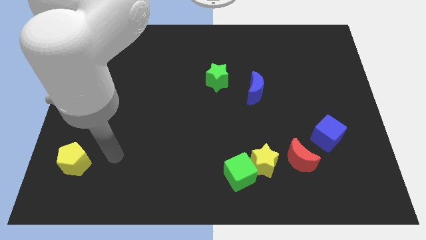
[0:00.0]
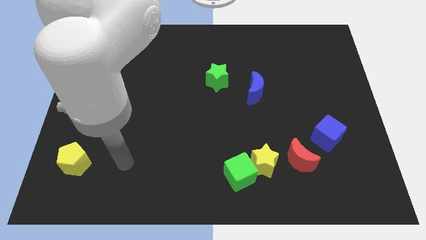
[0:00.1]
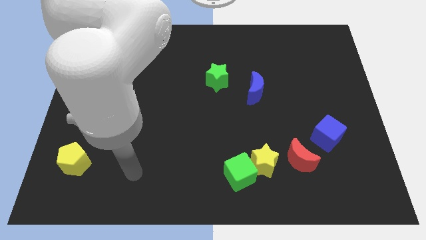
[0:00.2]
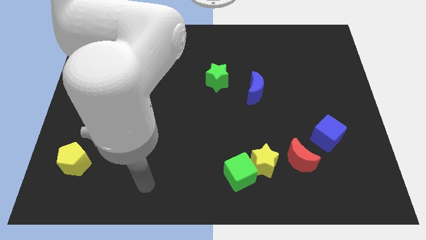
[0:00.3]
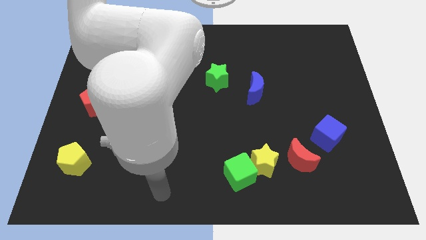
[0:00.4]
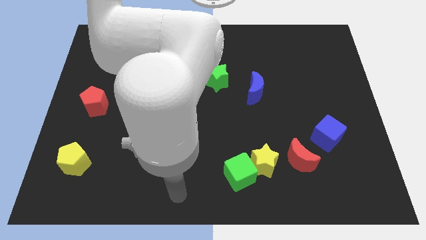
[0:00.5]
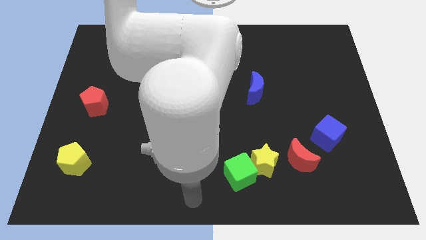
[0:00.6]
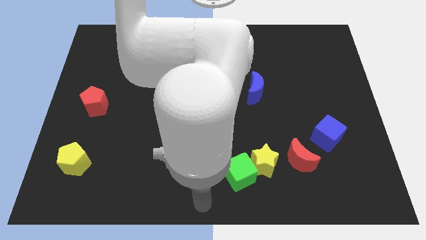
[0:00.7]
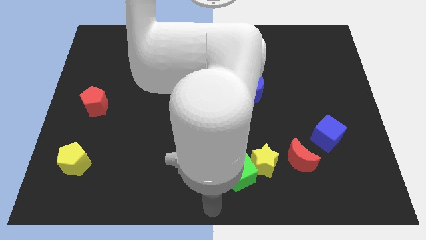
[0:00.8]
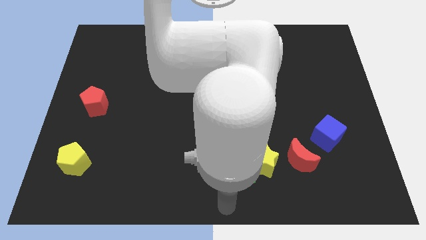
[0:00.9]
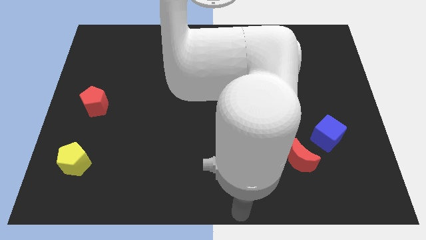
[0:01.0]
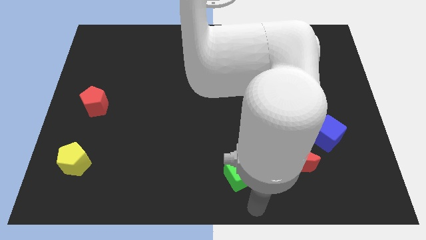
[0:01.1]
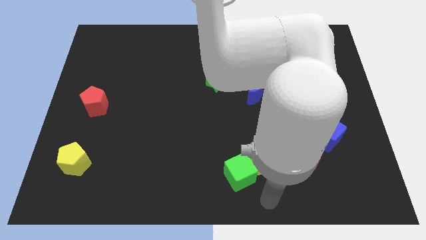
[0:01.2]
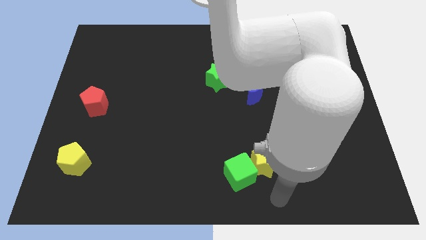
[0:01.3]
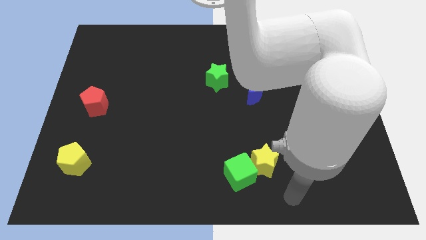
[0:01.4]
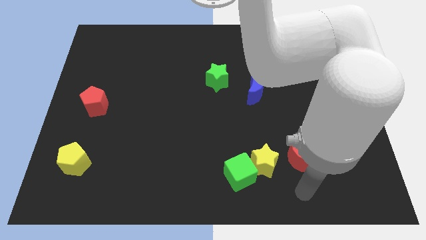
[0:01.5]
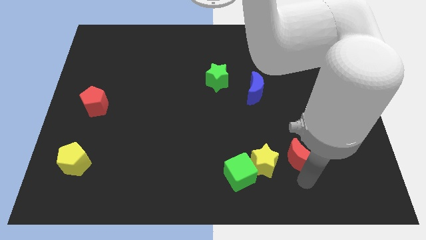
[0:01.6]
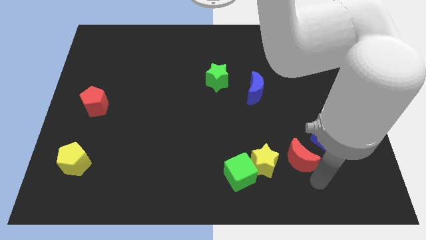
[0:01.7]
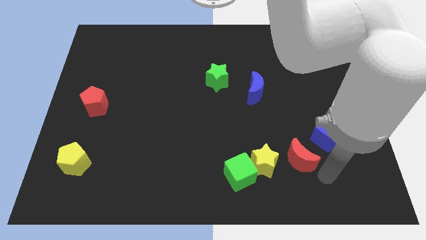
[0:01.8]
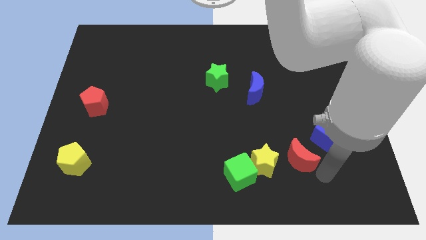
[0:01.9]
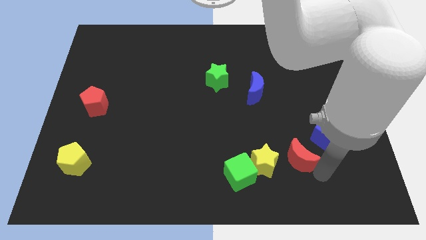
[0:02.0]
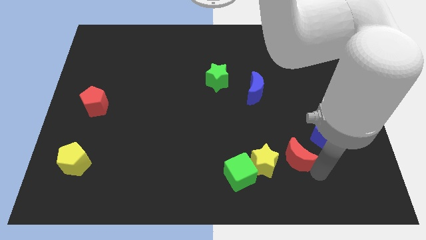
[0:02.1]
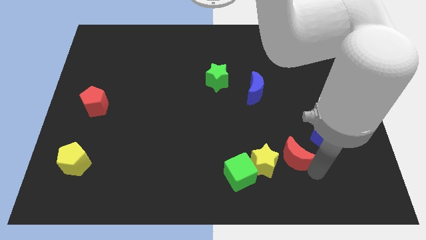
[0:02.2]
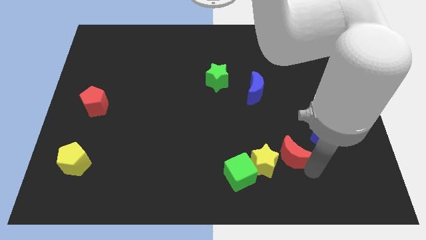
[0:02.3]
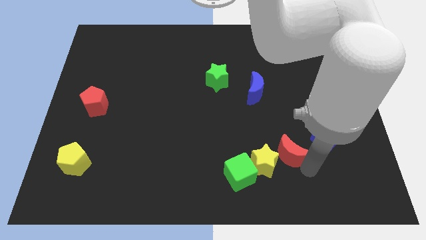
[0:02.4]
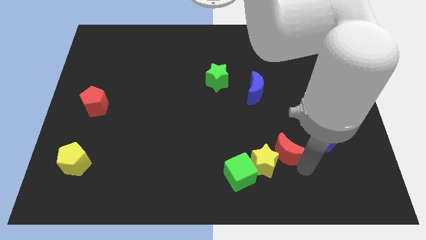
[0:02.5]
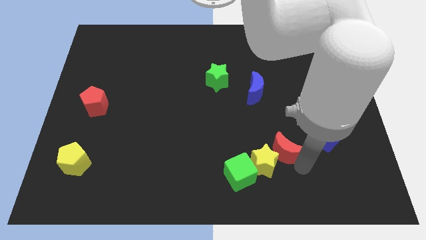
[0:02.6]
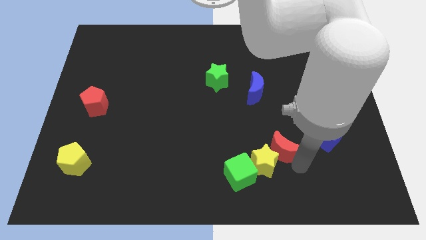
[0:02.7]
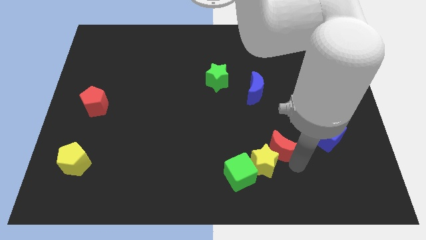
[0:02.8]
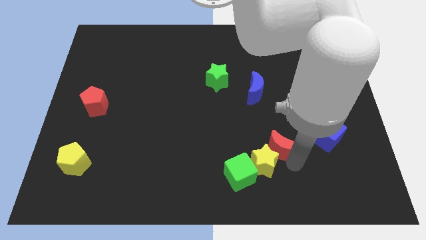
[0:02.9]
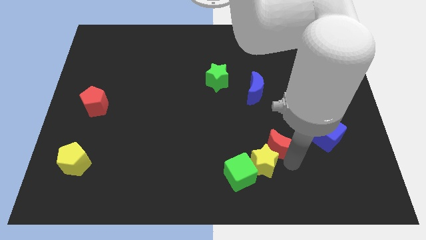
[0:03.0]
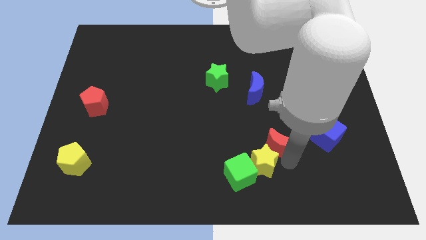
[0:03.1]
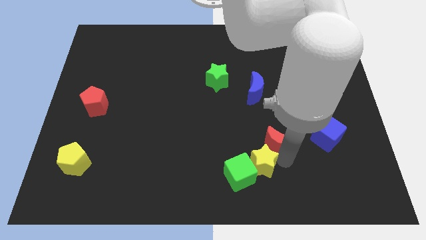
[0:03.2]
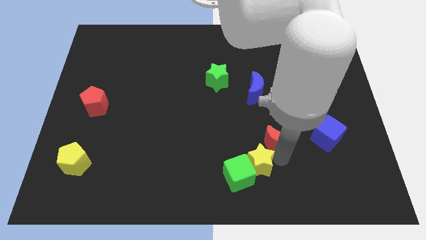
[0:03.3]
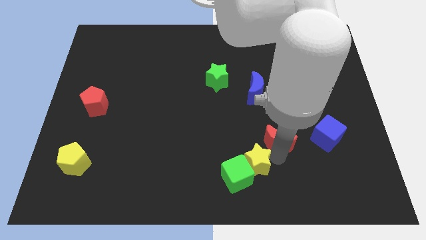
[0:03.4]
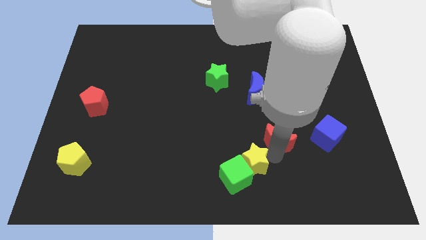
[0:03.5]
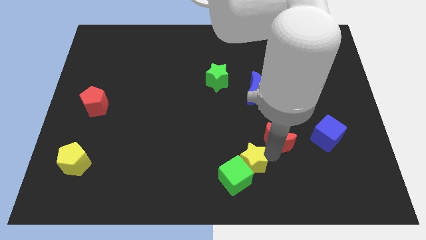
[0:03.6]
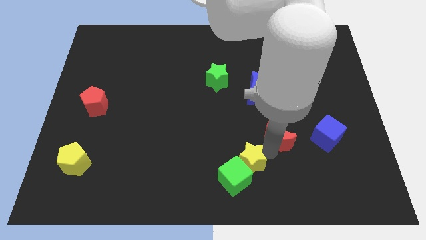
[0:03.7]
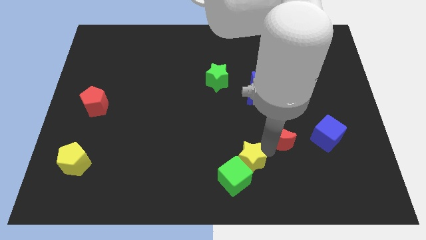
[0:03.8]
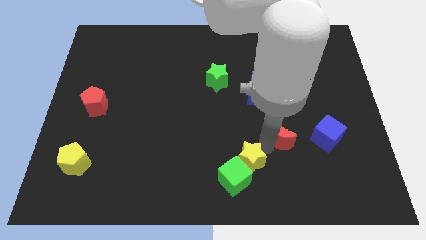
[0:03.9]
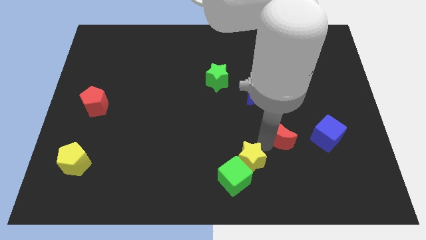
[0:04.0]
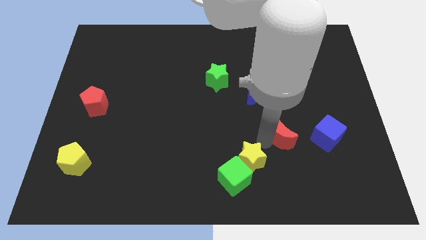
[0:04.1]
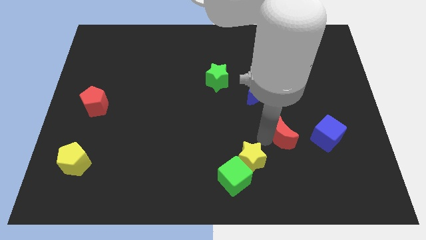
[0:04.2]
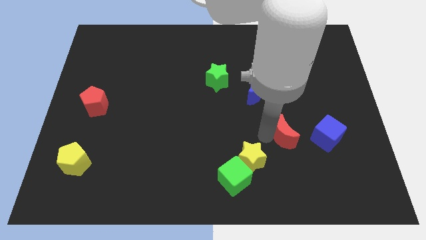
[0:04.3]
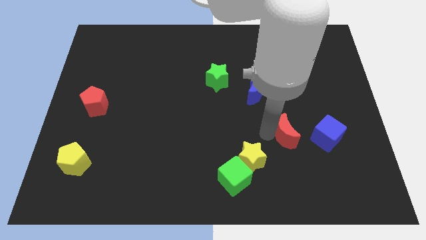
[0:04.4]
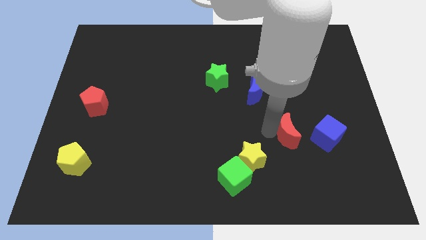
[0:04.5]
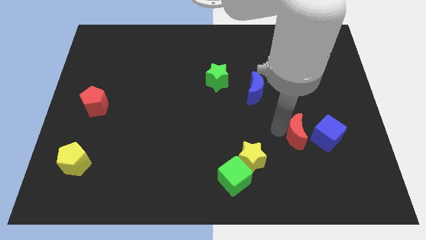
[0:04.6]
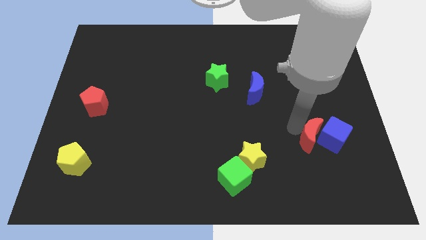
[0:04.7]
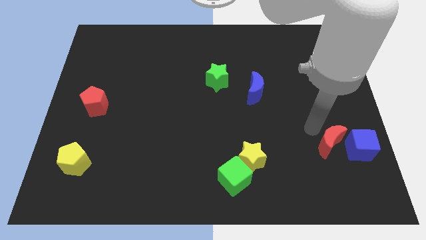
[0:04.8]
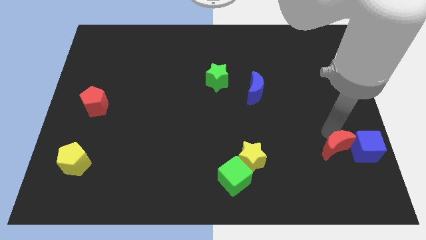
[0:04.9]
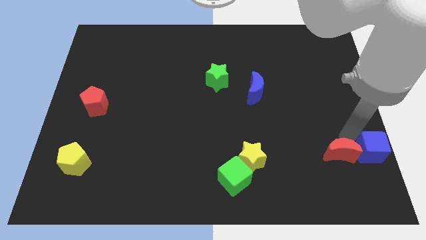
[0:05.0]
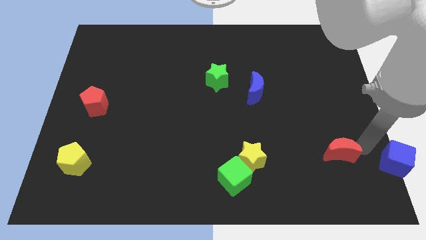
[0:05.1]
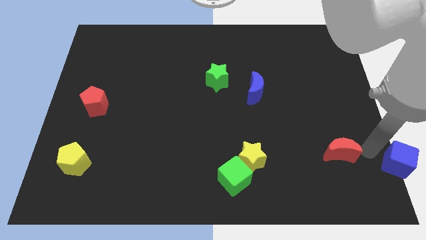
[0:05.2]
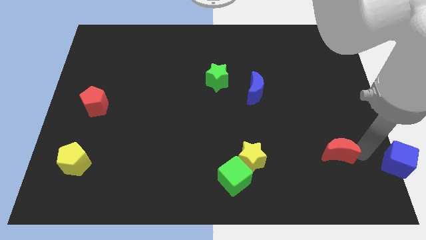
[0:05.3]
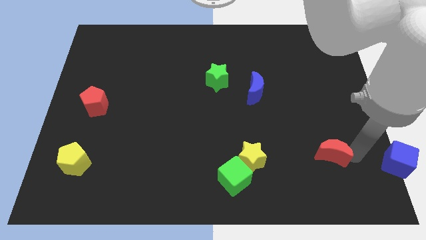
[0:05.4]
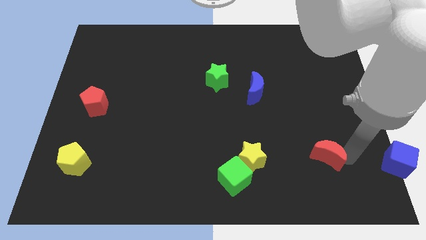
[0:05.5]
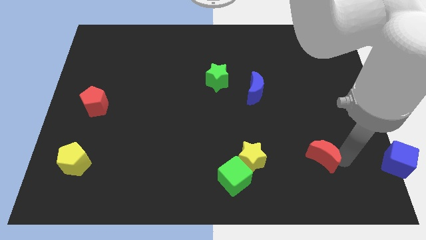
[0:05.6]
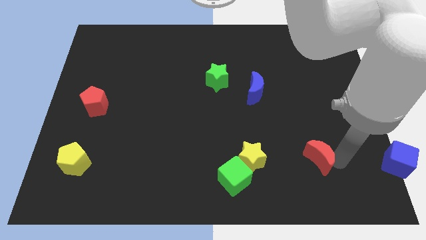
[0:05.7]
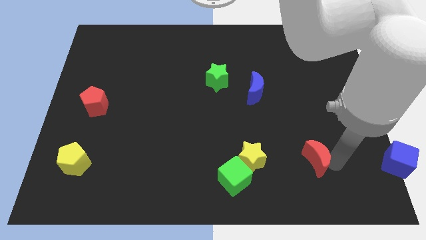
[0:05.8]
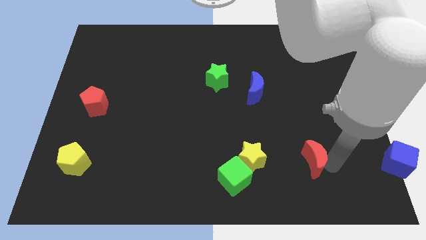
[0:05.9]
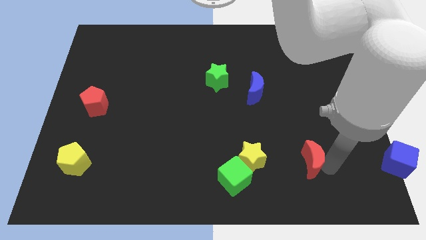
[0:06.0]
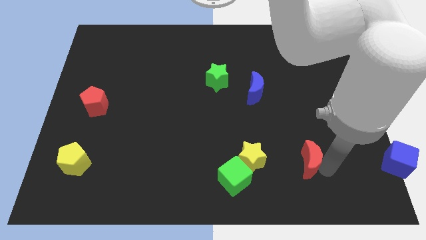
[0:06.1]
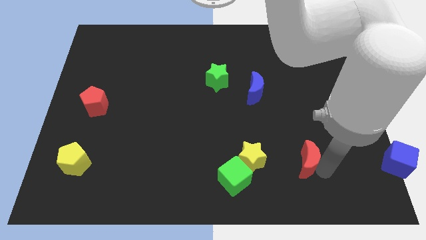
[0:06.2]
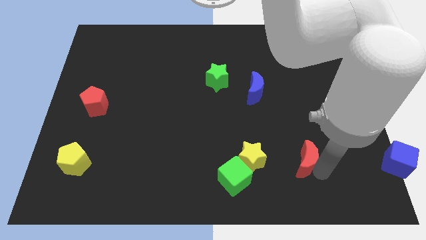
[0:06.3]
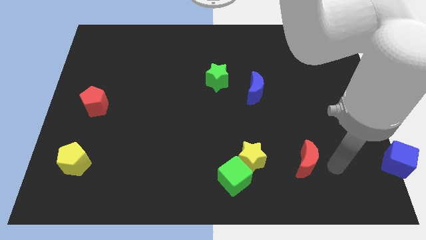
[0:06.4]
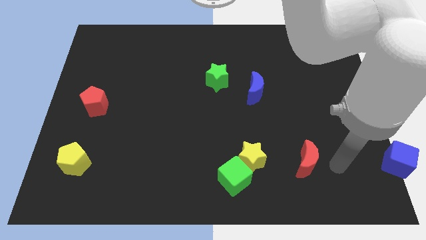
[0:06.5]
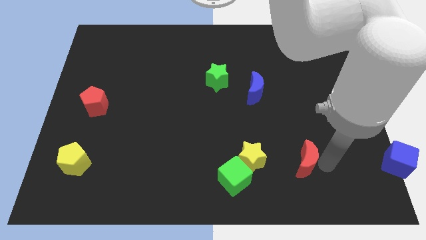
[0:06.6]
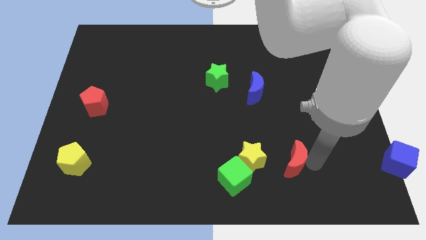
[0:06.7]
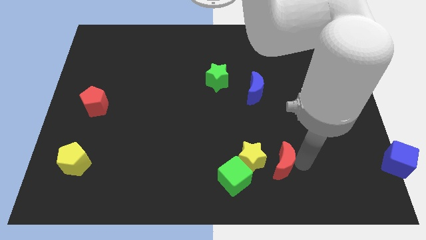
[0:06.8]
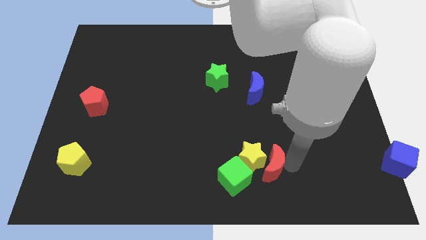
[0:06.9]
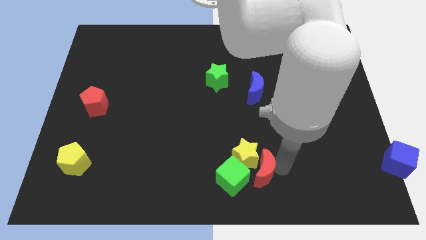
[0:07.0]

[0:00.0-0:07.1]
push the red moon to the left a little bit

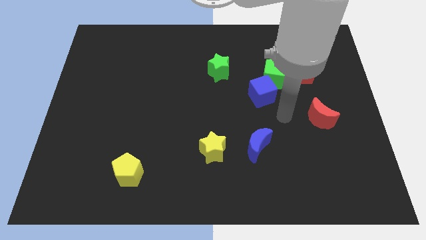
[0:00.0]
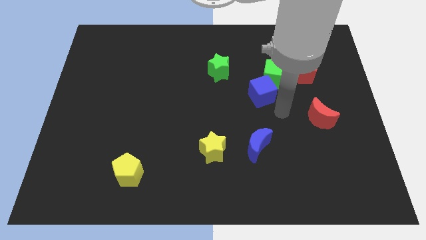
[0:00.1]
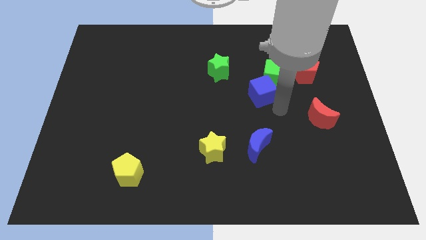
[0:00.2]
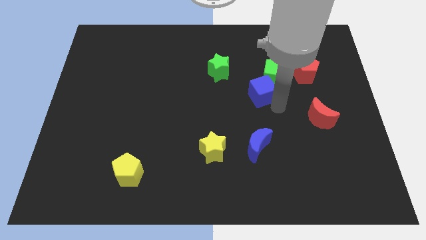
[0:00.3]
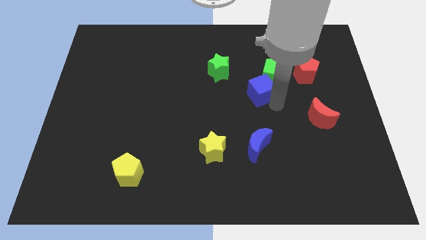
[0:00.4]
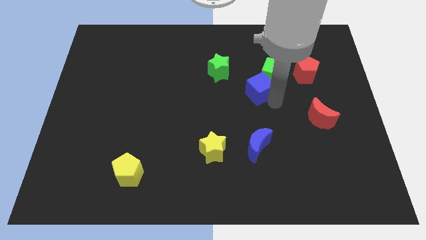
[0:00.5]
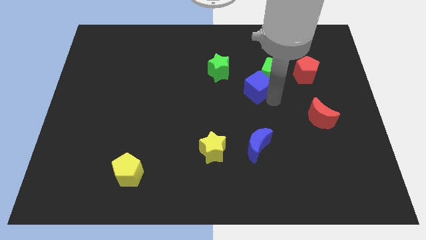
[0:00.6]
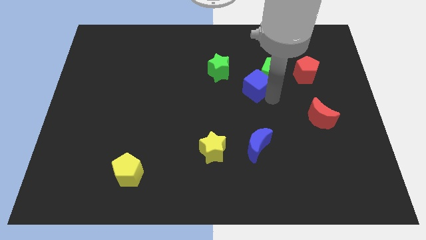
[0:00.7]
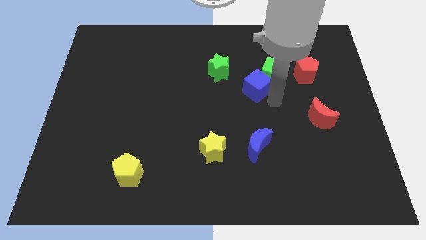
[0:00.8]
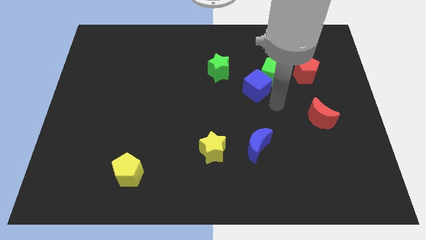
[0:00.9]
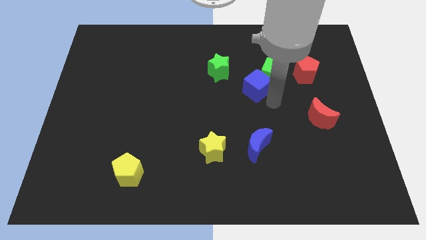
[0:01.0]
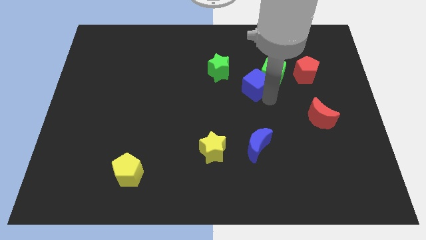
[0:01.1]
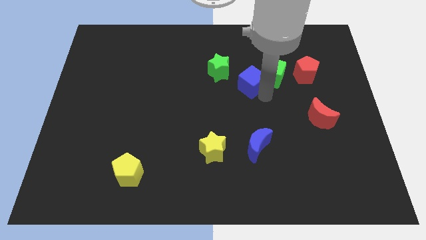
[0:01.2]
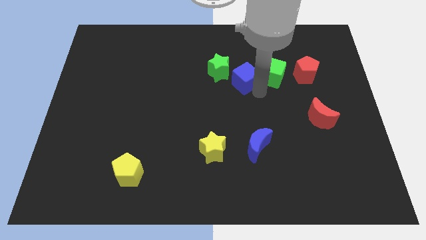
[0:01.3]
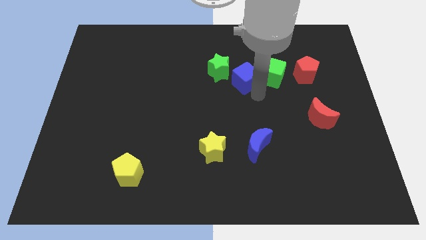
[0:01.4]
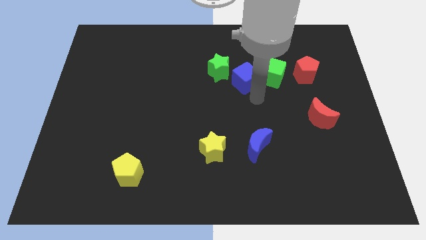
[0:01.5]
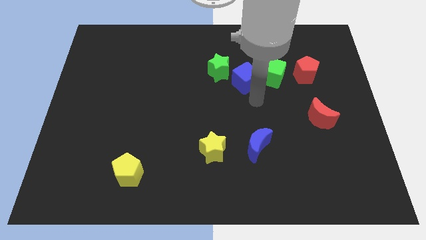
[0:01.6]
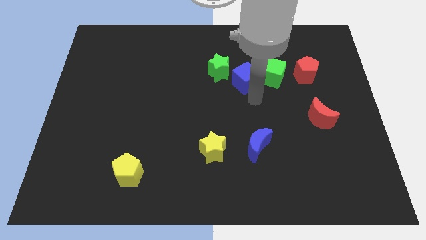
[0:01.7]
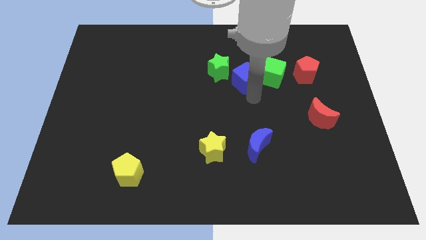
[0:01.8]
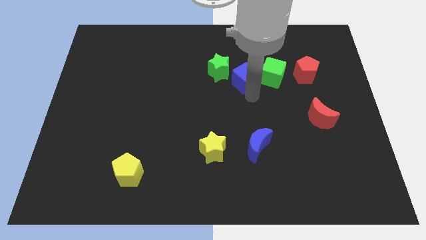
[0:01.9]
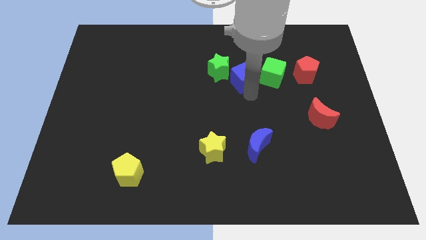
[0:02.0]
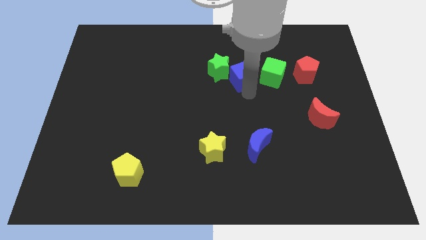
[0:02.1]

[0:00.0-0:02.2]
slightly push the blue cube upwards and then to the left
